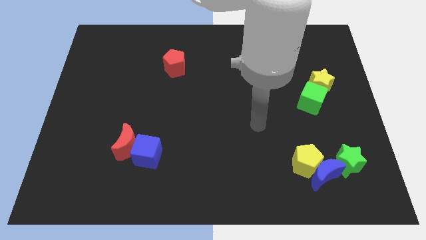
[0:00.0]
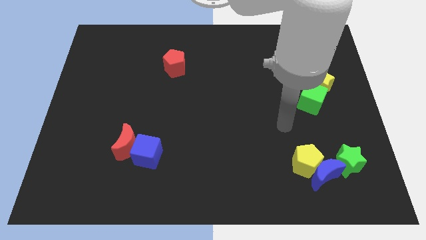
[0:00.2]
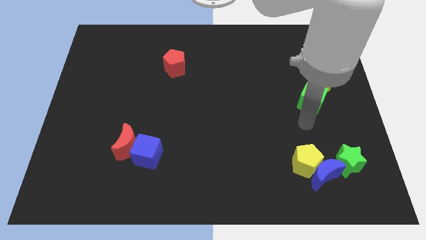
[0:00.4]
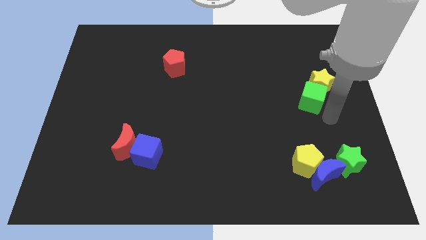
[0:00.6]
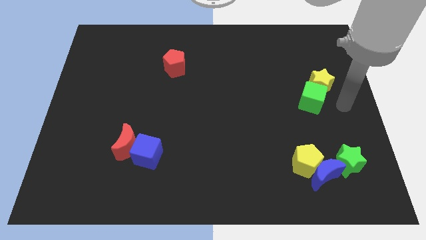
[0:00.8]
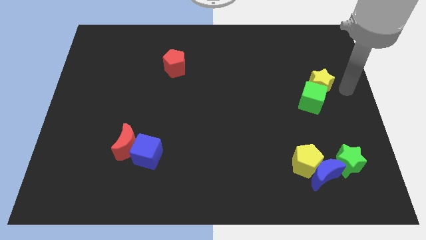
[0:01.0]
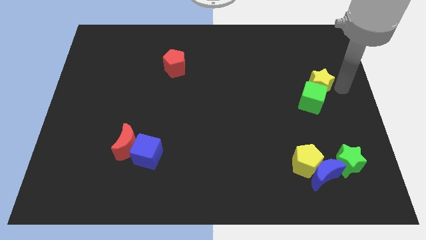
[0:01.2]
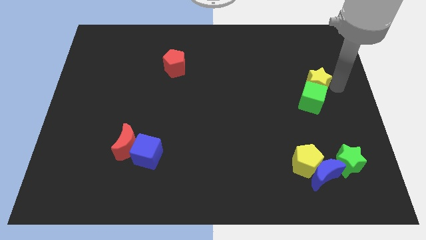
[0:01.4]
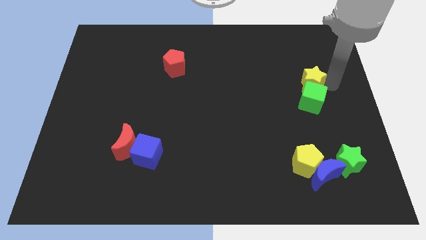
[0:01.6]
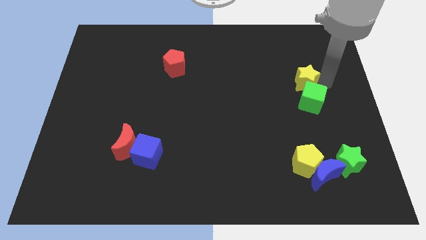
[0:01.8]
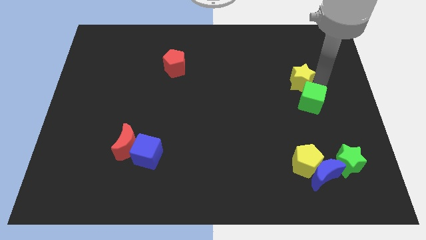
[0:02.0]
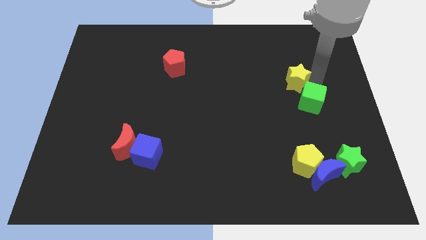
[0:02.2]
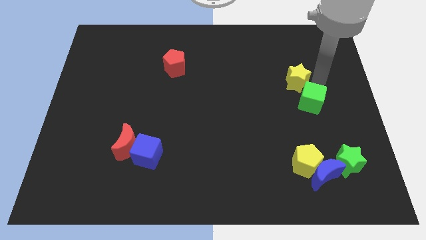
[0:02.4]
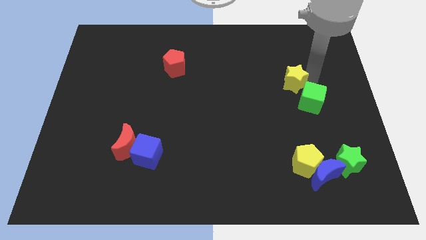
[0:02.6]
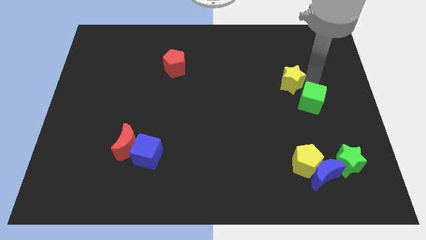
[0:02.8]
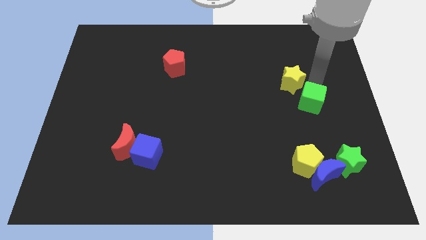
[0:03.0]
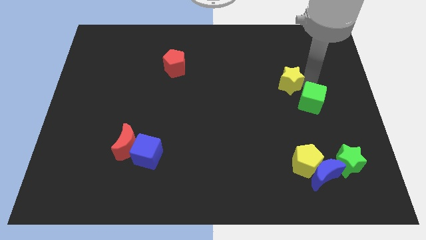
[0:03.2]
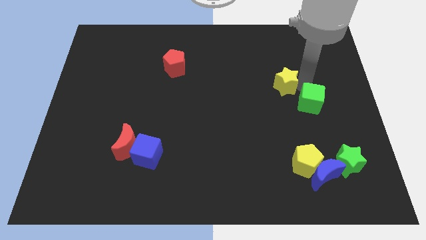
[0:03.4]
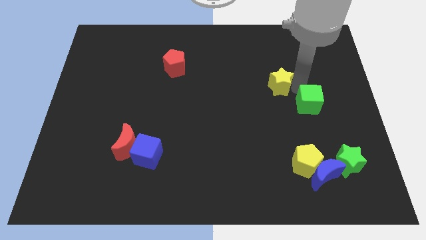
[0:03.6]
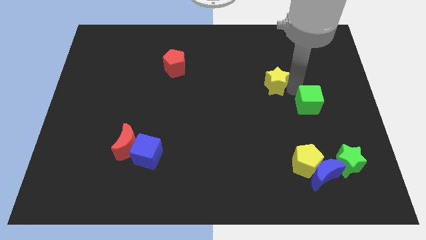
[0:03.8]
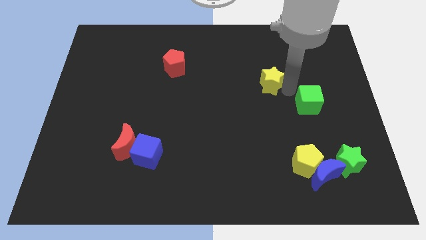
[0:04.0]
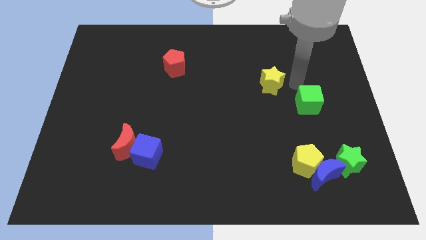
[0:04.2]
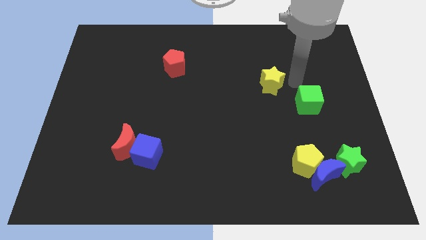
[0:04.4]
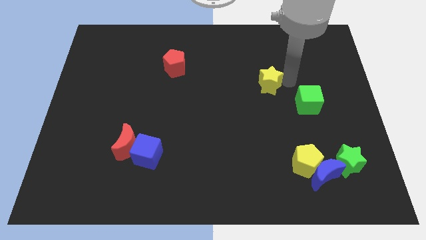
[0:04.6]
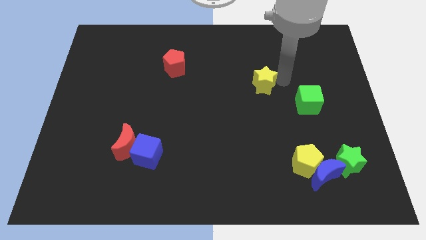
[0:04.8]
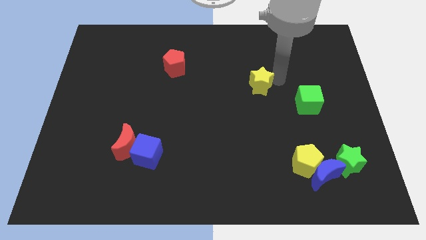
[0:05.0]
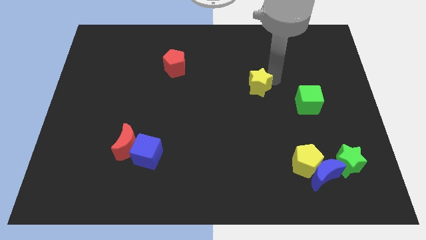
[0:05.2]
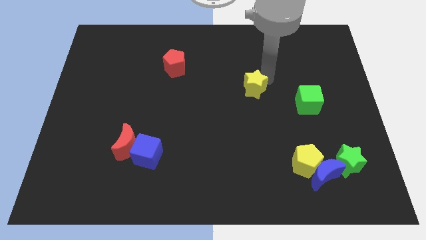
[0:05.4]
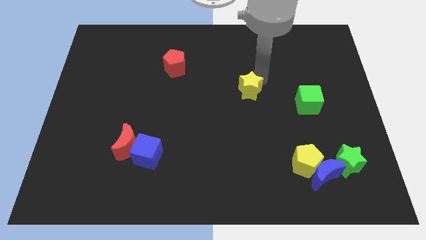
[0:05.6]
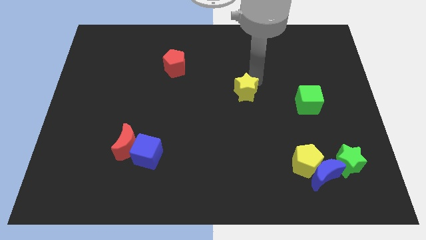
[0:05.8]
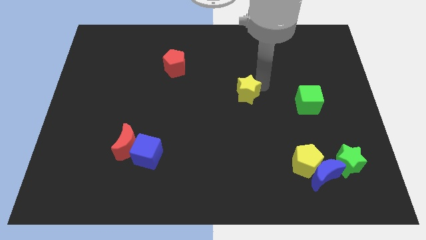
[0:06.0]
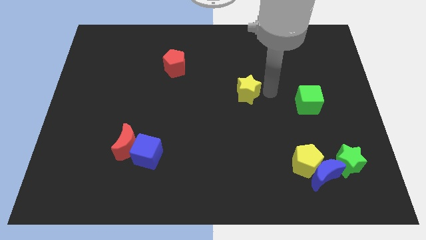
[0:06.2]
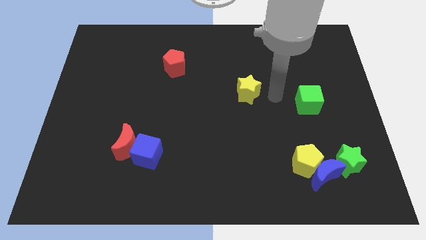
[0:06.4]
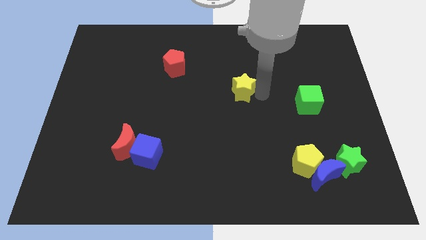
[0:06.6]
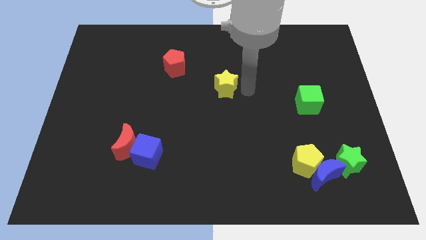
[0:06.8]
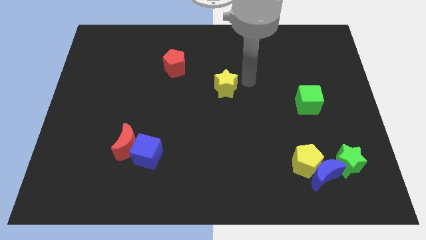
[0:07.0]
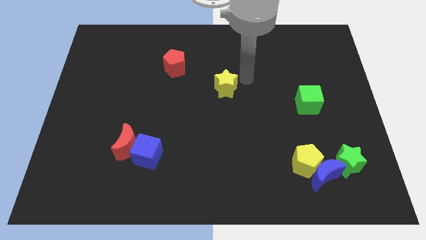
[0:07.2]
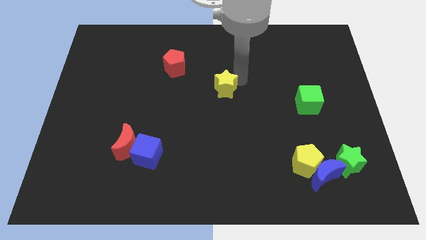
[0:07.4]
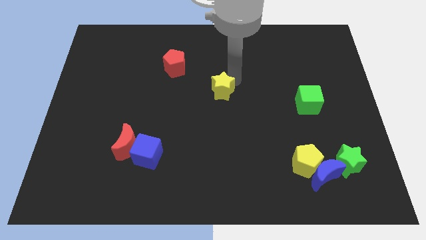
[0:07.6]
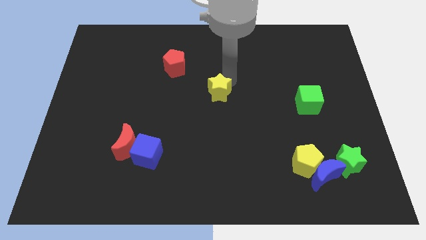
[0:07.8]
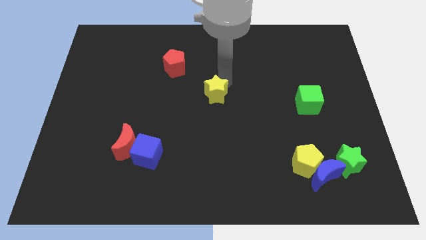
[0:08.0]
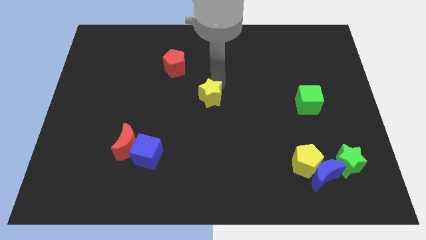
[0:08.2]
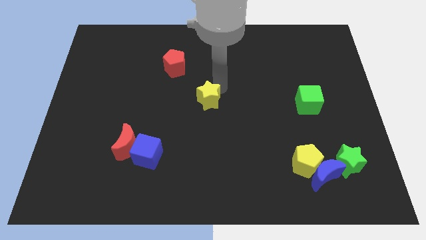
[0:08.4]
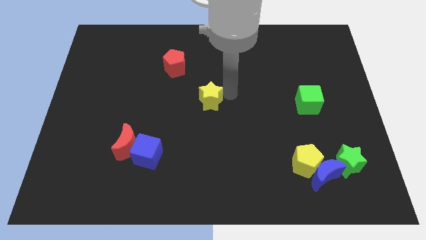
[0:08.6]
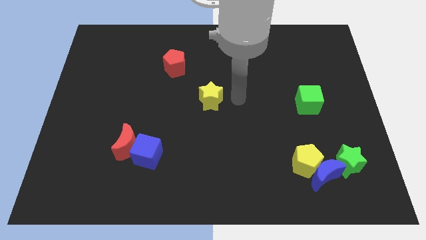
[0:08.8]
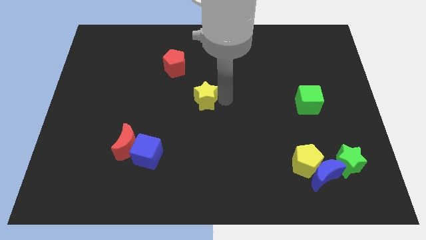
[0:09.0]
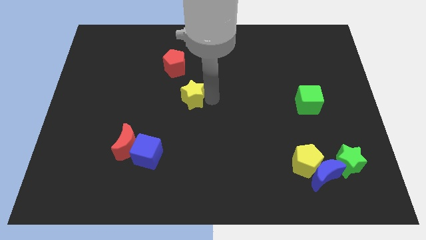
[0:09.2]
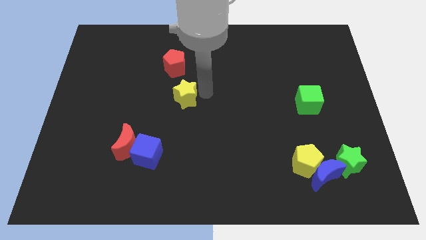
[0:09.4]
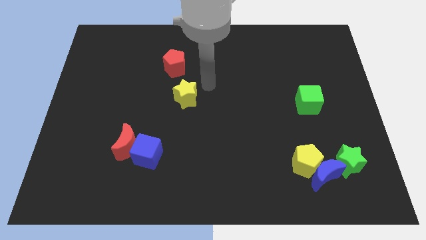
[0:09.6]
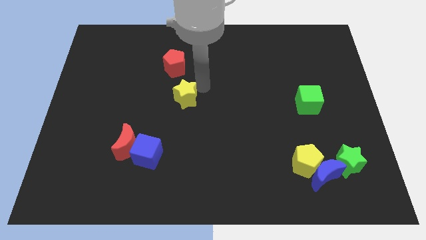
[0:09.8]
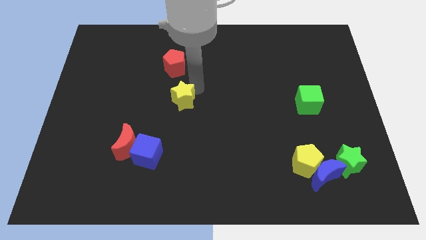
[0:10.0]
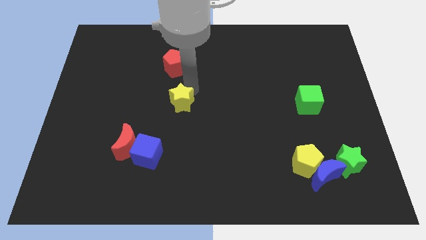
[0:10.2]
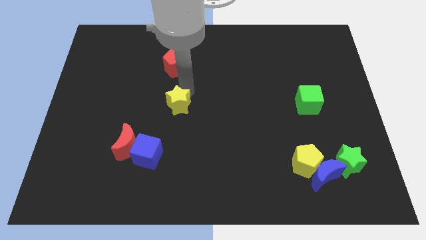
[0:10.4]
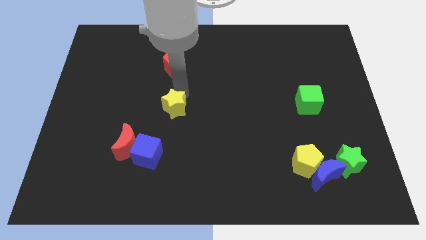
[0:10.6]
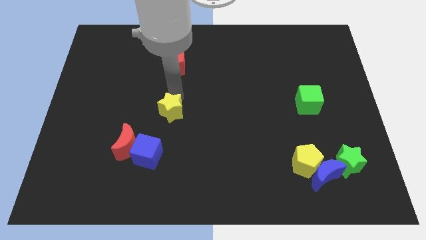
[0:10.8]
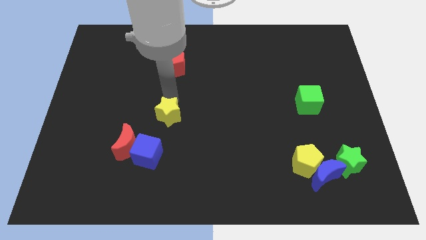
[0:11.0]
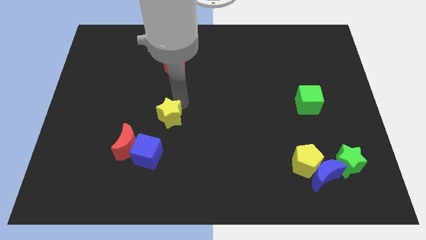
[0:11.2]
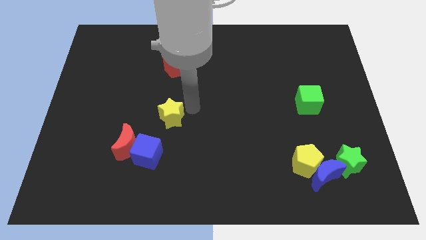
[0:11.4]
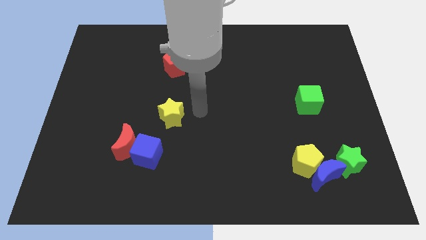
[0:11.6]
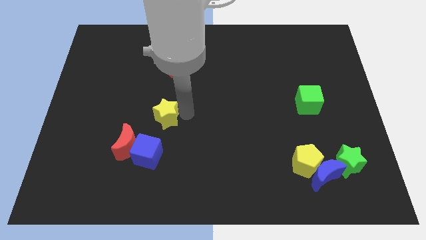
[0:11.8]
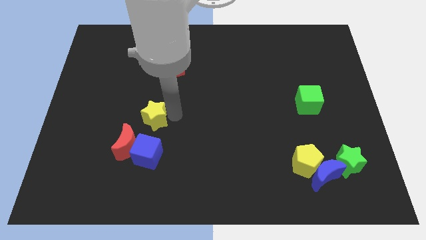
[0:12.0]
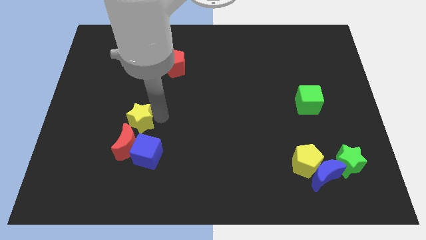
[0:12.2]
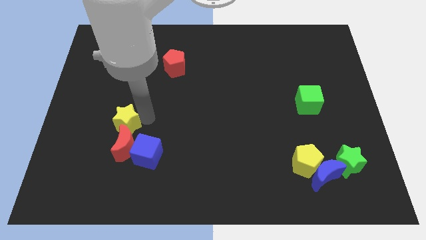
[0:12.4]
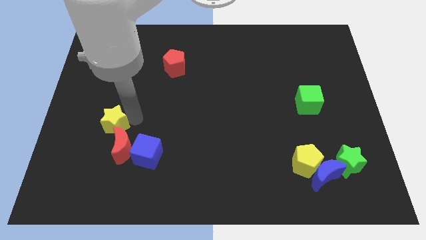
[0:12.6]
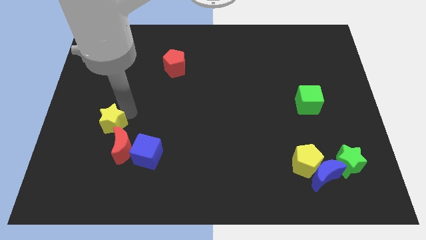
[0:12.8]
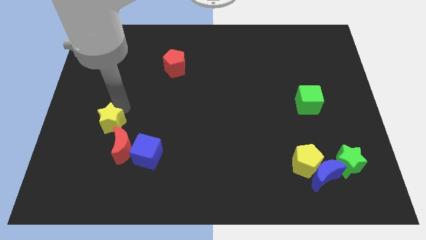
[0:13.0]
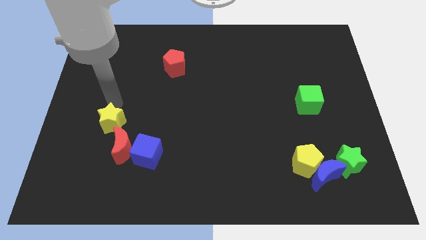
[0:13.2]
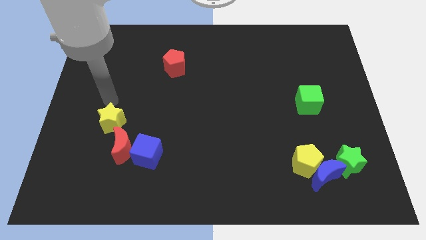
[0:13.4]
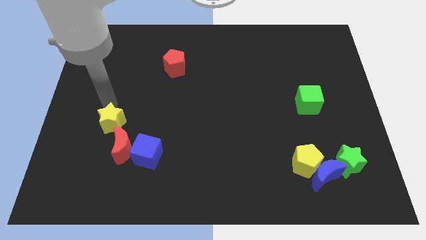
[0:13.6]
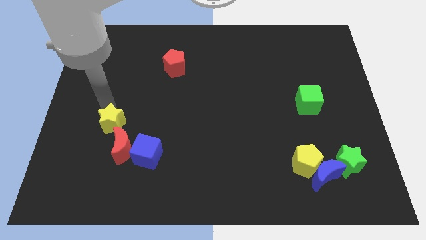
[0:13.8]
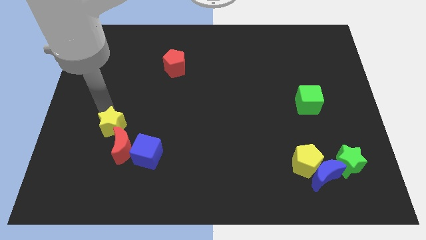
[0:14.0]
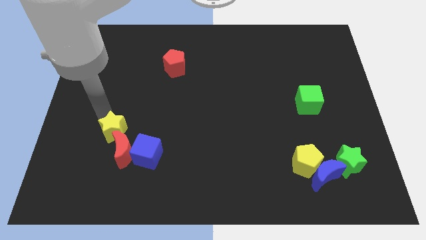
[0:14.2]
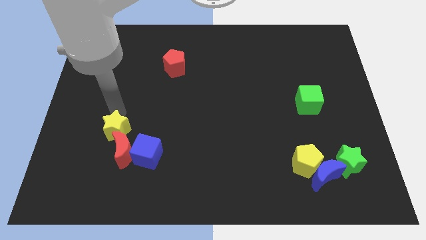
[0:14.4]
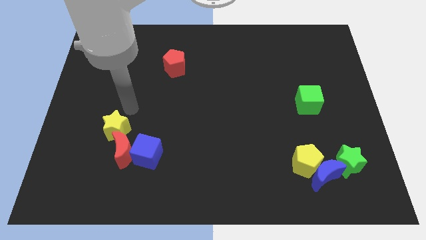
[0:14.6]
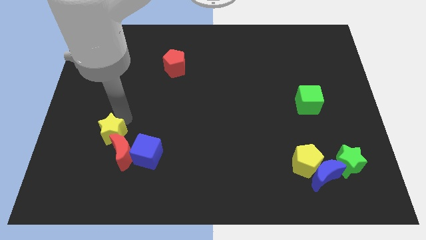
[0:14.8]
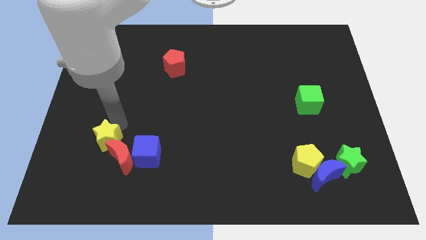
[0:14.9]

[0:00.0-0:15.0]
put the yellow star to the left side of the blue cube
